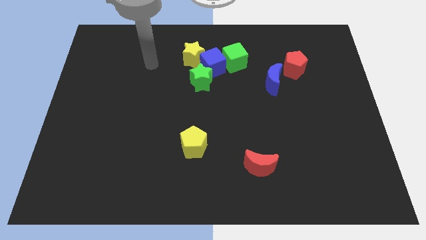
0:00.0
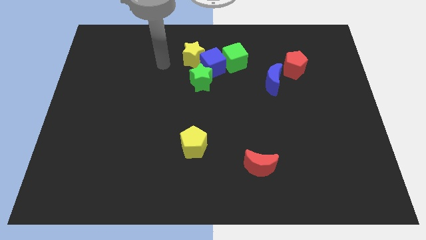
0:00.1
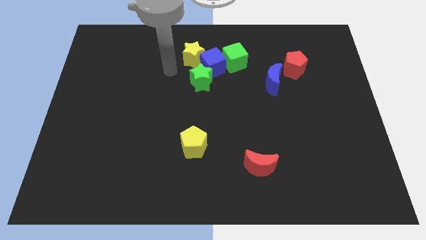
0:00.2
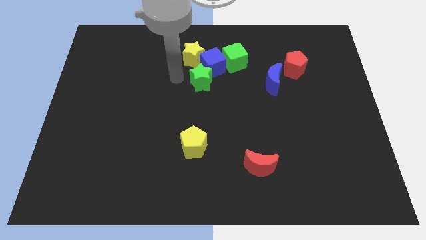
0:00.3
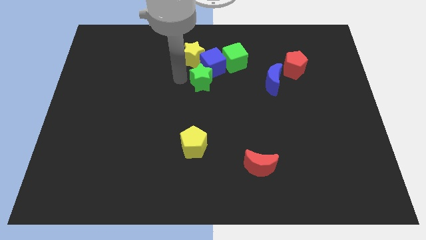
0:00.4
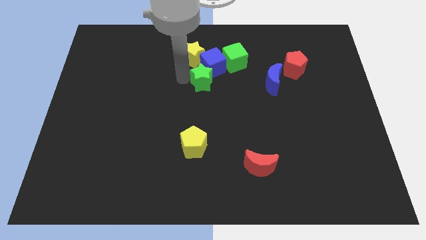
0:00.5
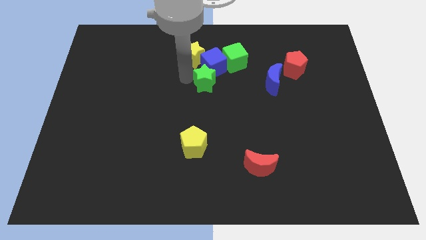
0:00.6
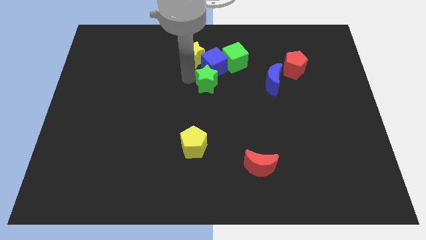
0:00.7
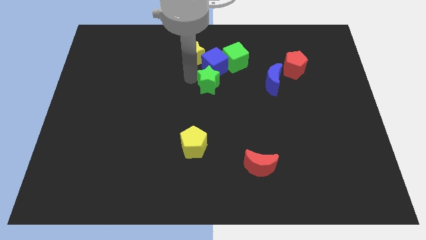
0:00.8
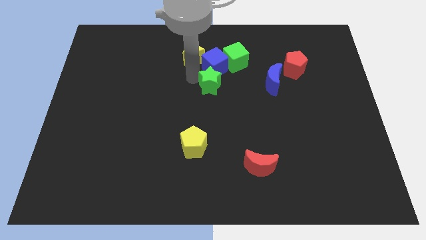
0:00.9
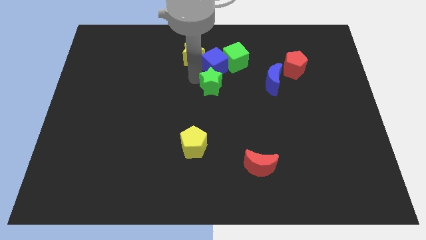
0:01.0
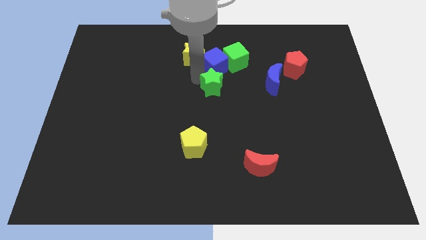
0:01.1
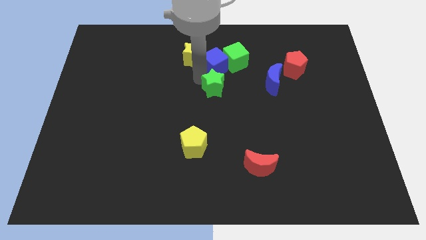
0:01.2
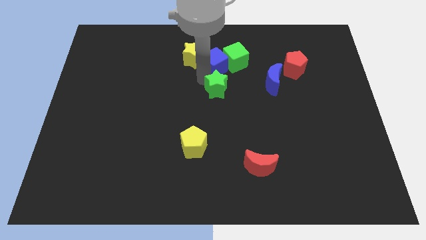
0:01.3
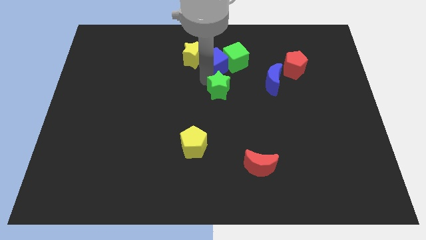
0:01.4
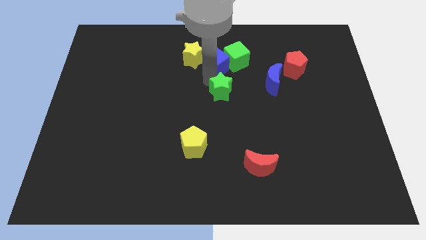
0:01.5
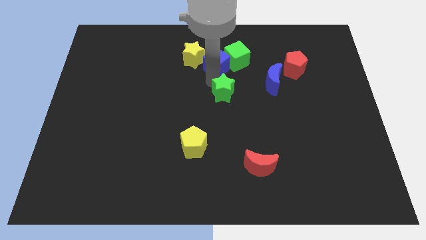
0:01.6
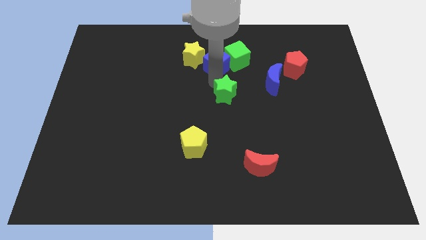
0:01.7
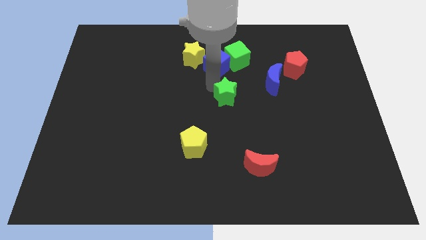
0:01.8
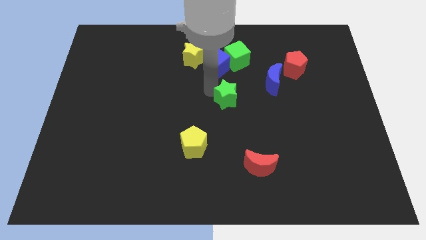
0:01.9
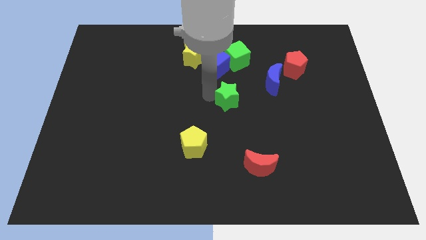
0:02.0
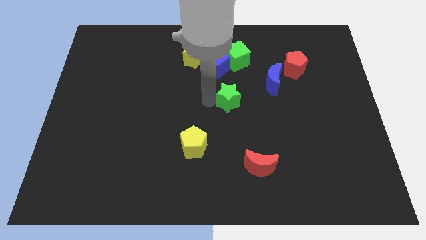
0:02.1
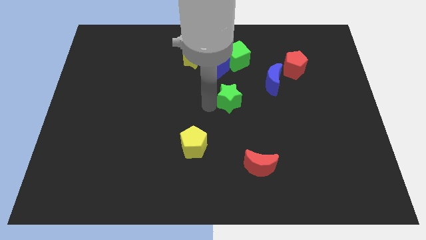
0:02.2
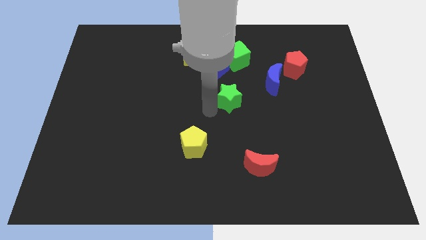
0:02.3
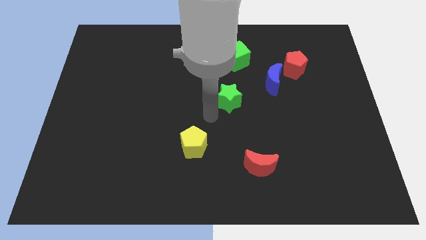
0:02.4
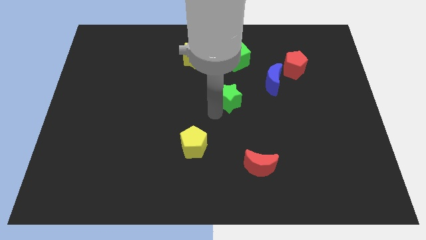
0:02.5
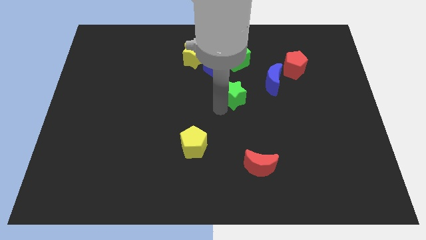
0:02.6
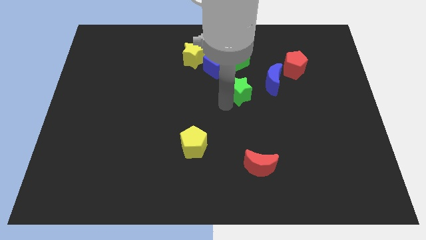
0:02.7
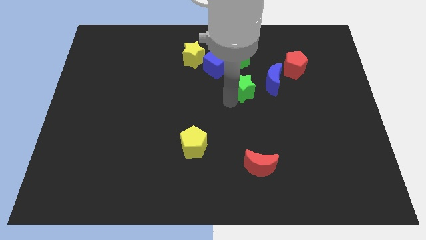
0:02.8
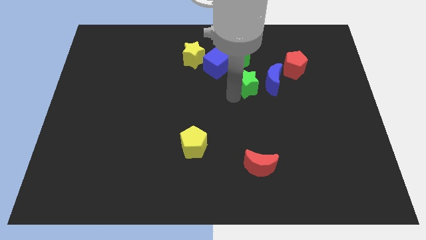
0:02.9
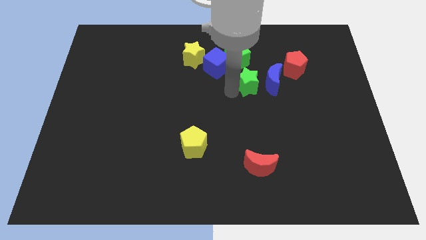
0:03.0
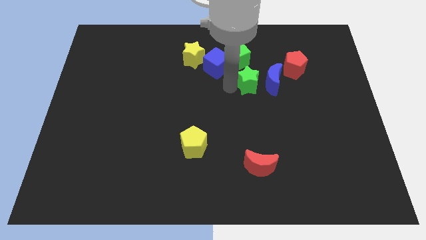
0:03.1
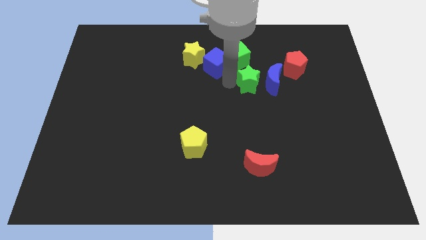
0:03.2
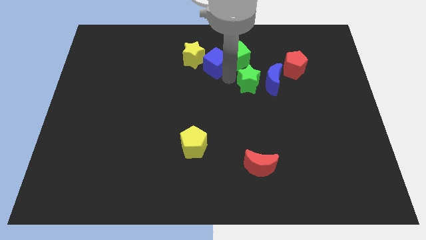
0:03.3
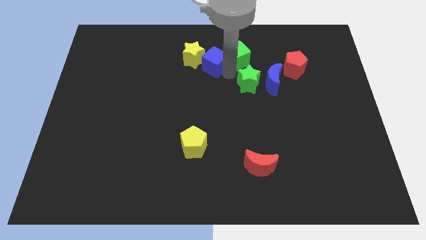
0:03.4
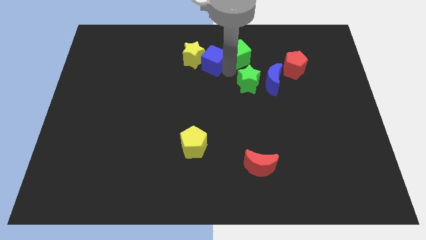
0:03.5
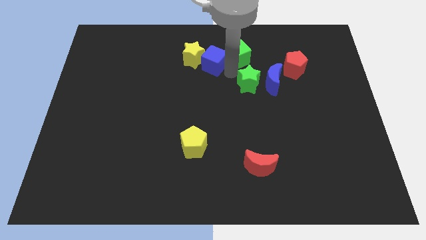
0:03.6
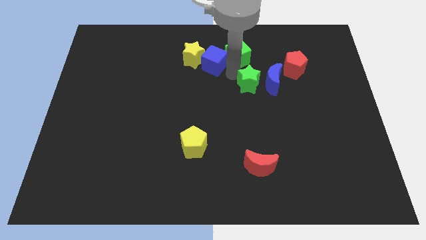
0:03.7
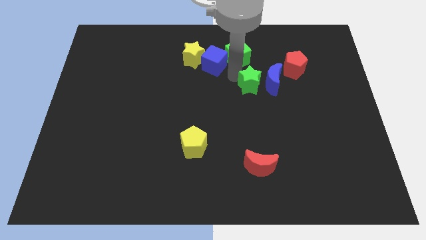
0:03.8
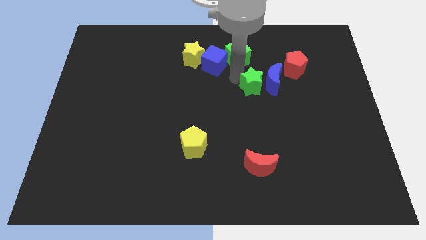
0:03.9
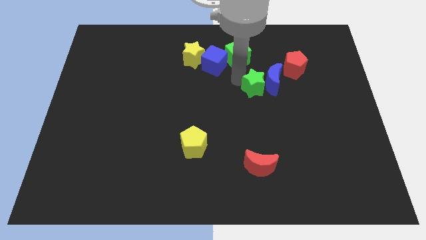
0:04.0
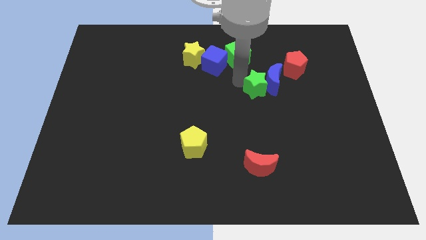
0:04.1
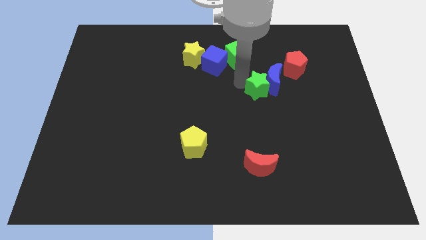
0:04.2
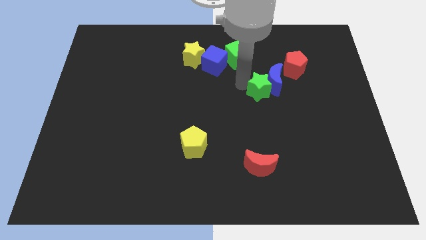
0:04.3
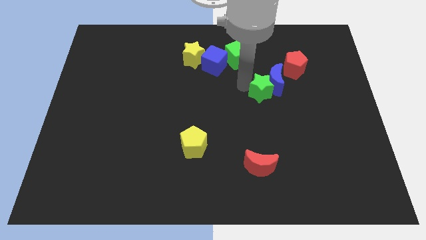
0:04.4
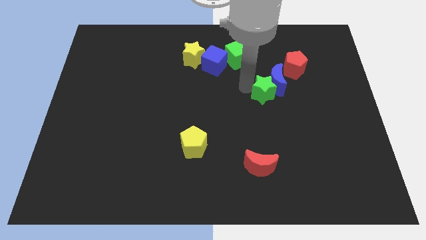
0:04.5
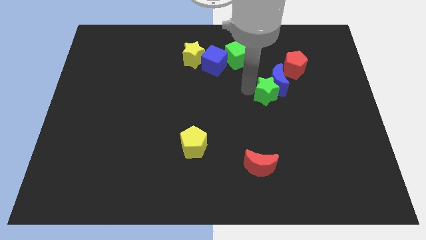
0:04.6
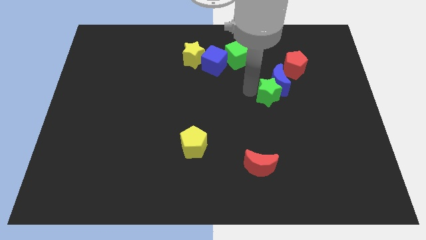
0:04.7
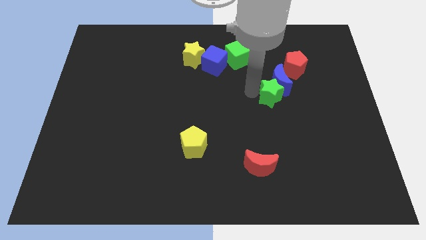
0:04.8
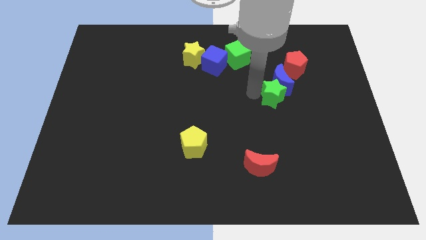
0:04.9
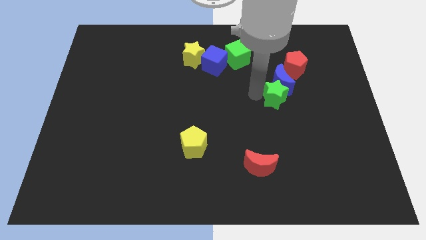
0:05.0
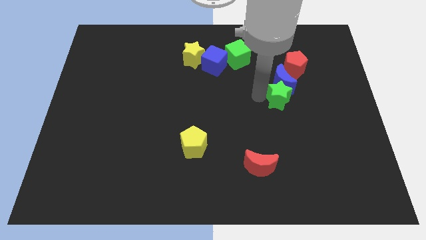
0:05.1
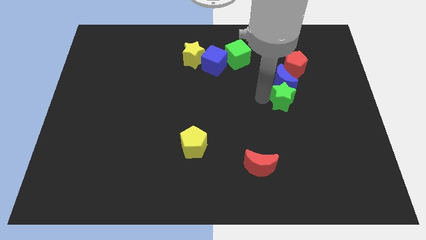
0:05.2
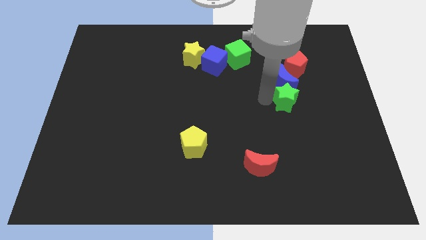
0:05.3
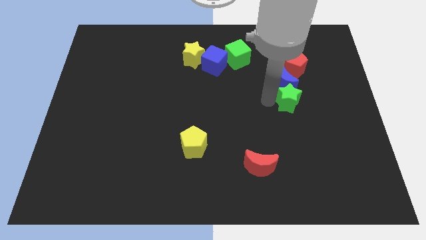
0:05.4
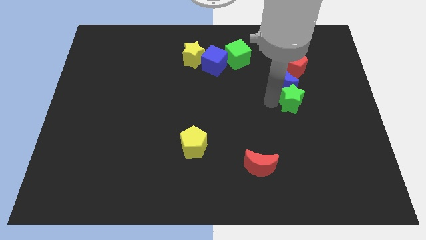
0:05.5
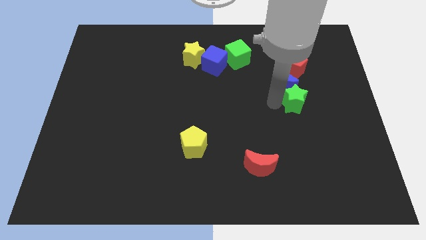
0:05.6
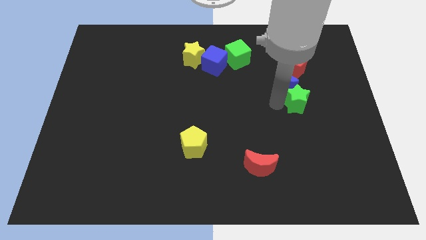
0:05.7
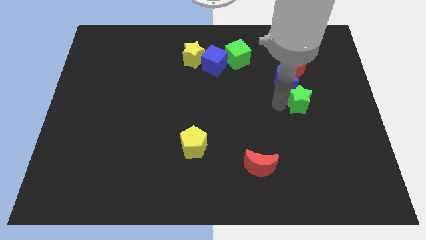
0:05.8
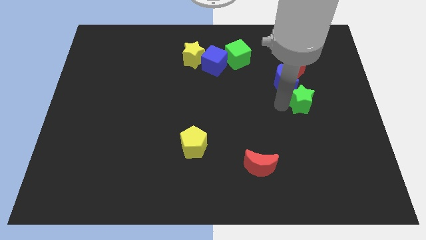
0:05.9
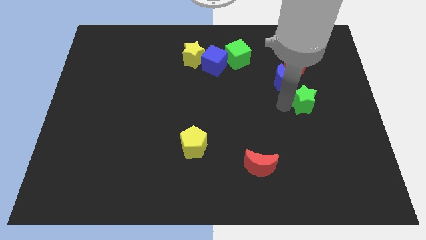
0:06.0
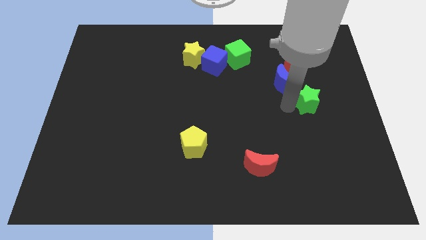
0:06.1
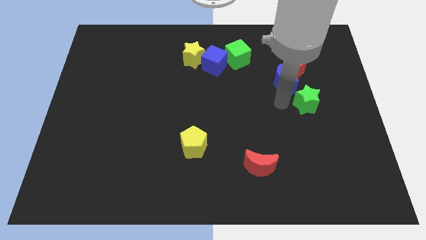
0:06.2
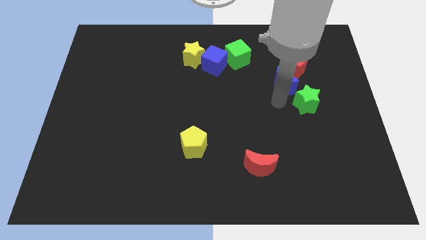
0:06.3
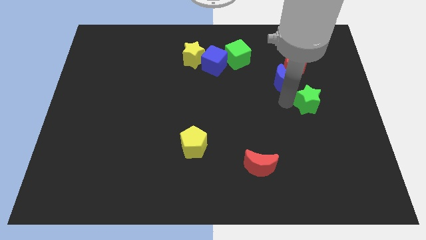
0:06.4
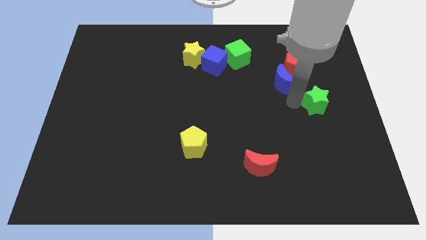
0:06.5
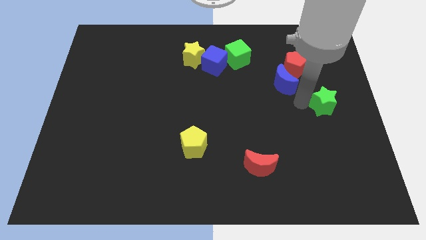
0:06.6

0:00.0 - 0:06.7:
move the green star to the center right
